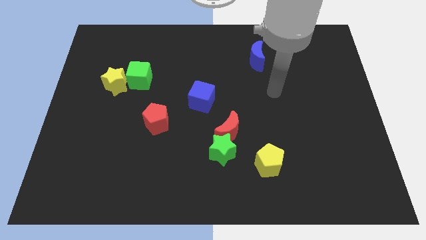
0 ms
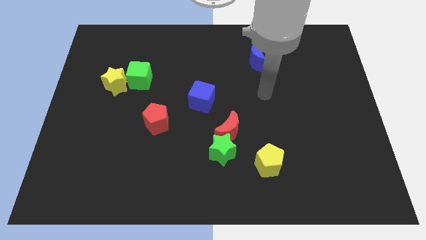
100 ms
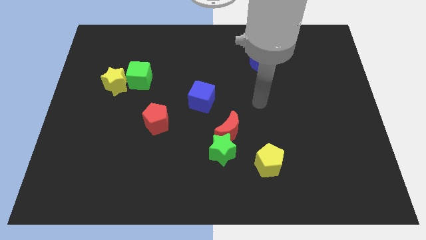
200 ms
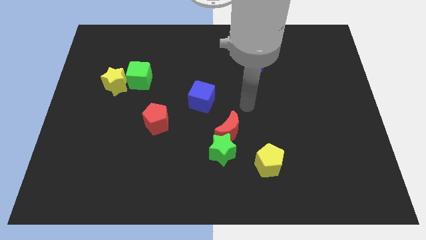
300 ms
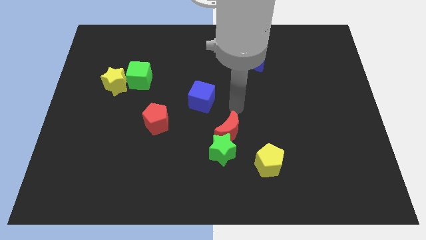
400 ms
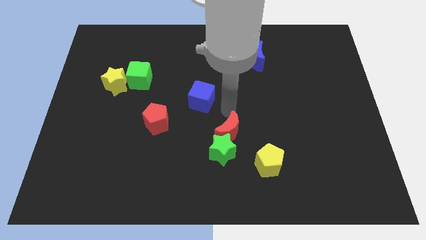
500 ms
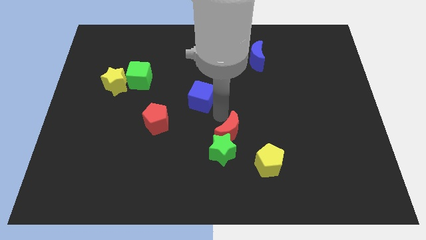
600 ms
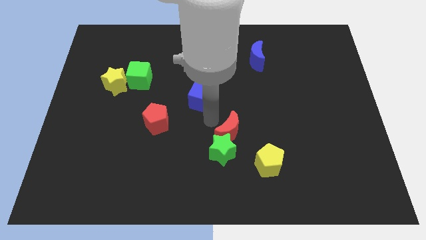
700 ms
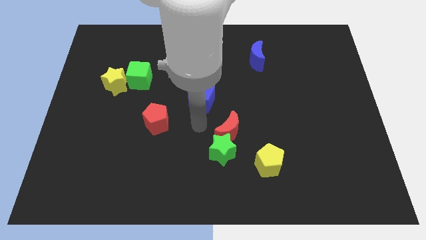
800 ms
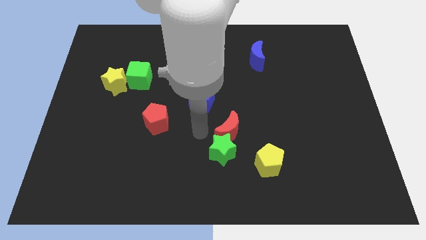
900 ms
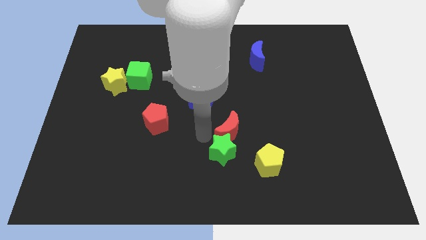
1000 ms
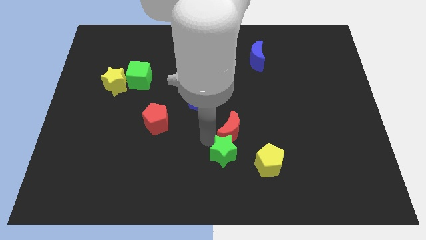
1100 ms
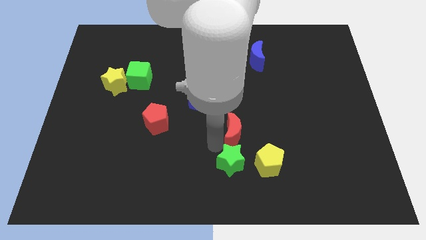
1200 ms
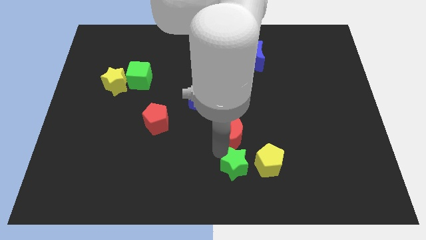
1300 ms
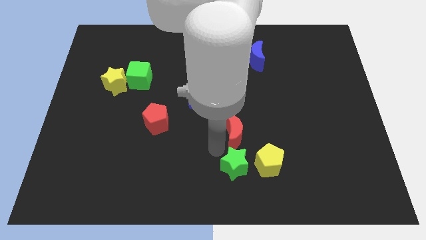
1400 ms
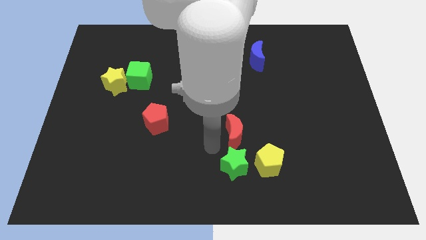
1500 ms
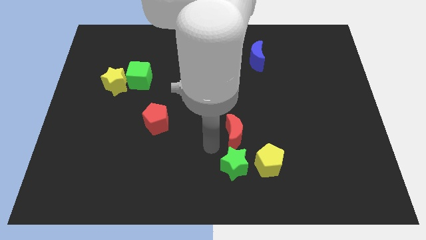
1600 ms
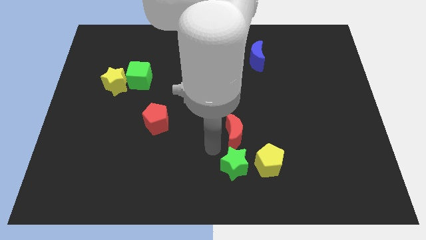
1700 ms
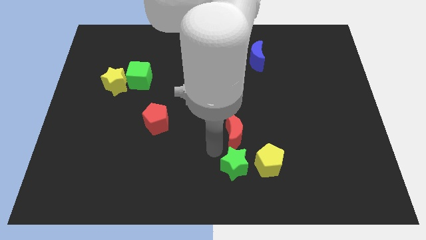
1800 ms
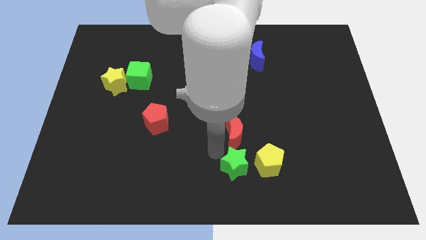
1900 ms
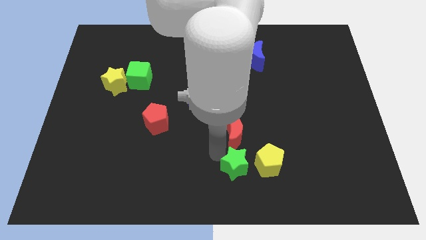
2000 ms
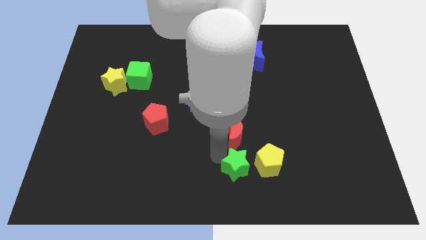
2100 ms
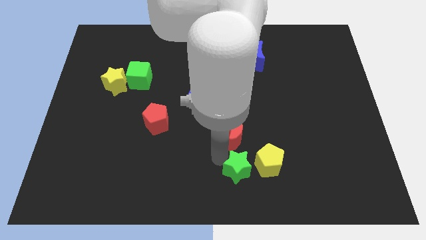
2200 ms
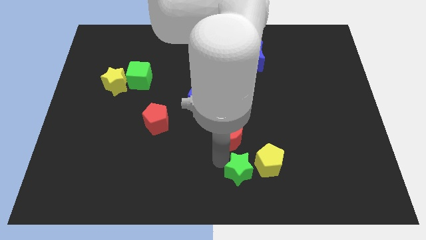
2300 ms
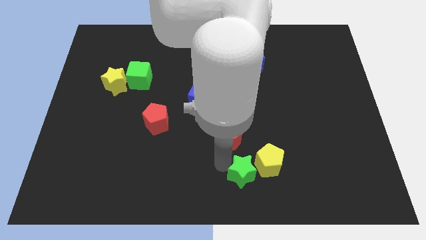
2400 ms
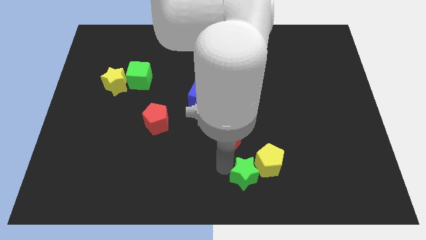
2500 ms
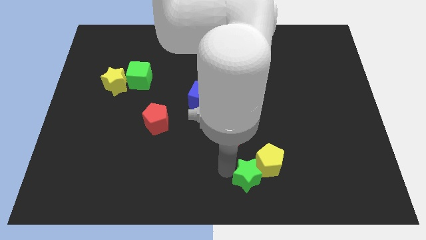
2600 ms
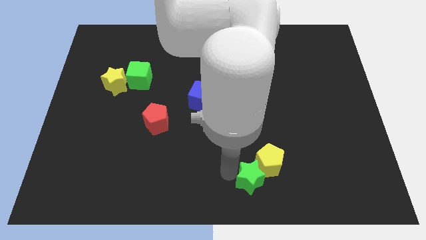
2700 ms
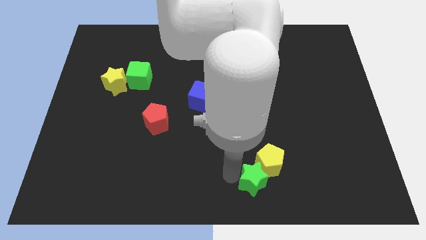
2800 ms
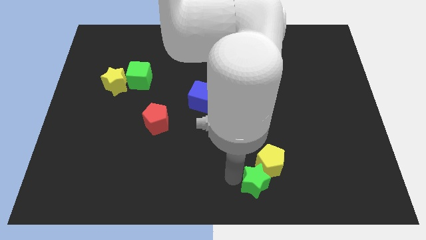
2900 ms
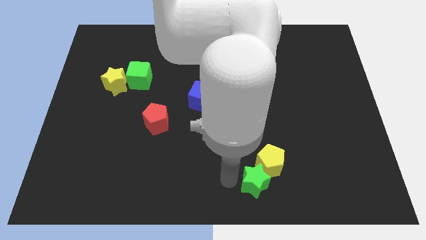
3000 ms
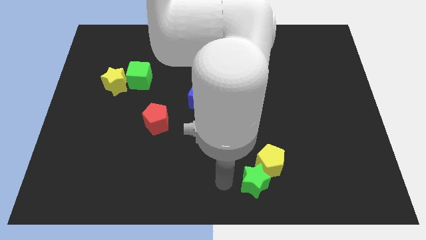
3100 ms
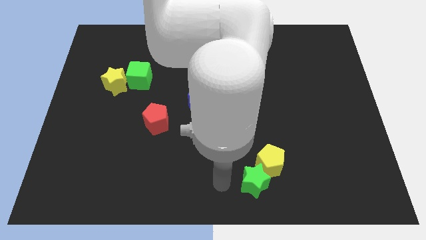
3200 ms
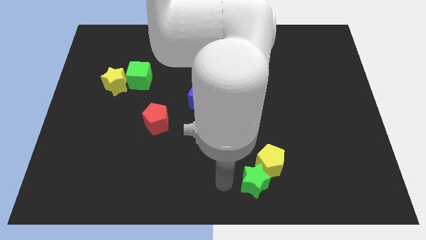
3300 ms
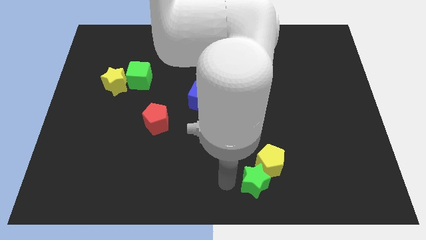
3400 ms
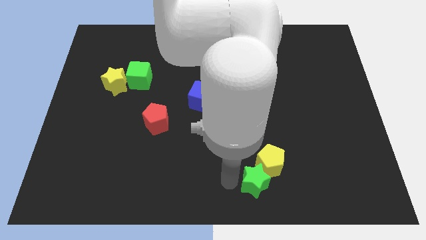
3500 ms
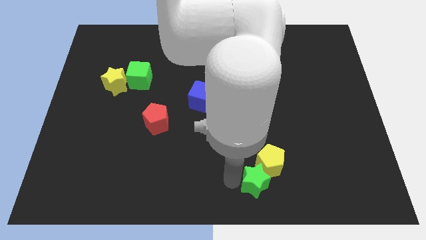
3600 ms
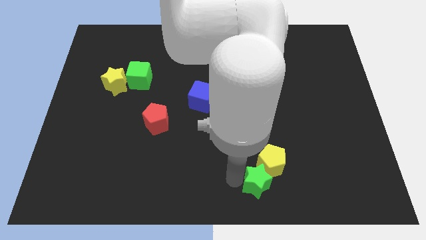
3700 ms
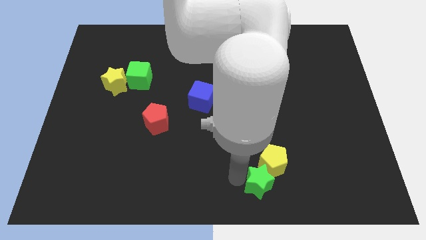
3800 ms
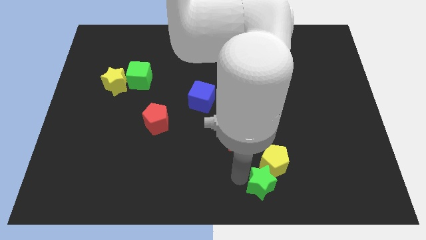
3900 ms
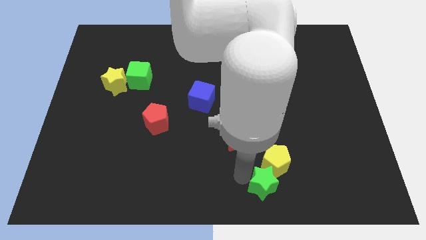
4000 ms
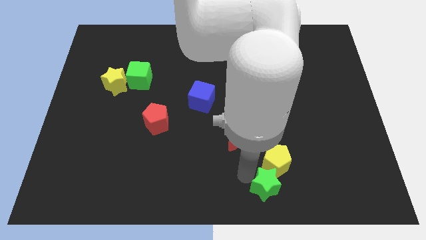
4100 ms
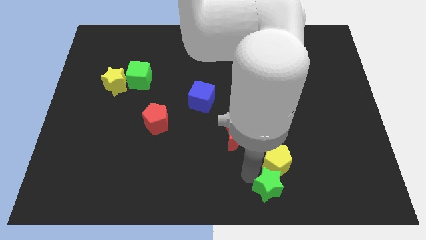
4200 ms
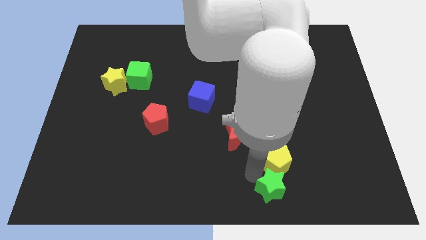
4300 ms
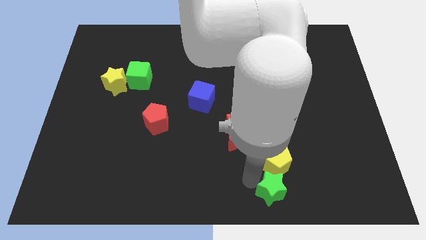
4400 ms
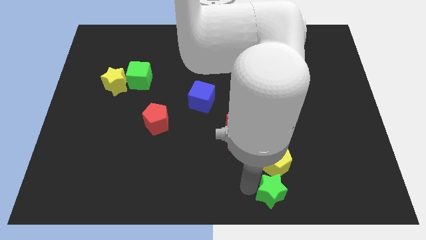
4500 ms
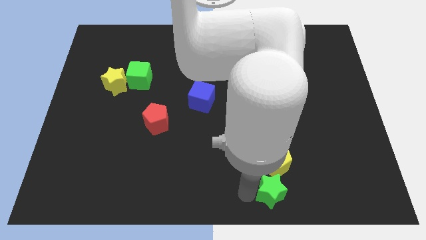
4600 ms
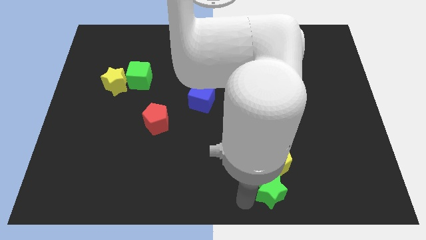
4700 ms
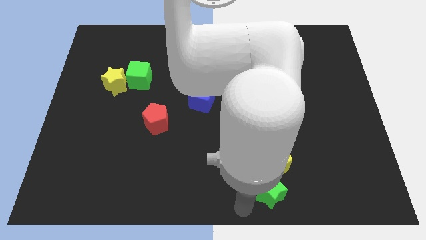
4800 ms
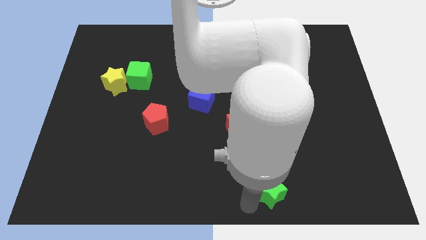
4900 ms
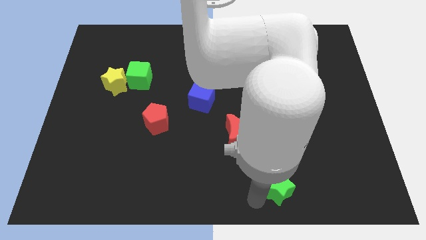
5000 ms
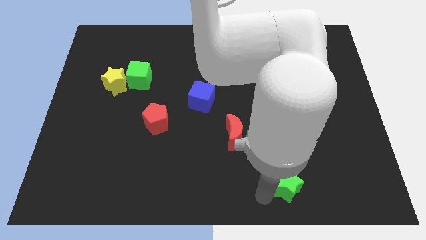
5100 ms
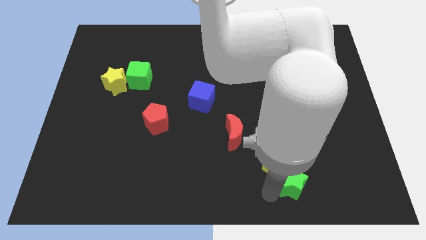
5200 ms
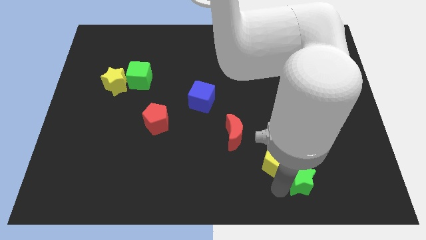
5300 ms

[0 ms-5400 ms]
move the green star to the right of the yellow pentagon

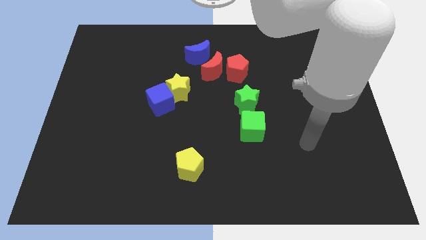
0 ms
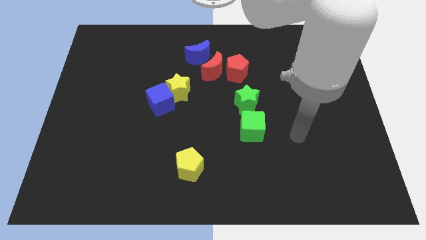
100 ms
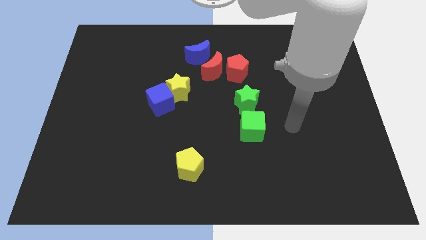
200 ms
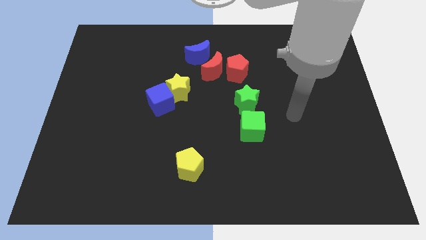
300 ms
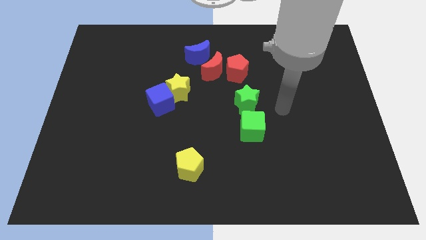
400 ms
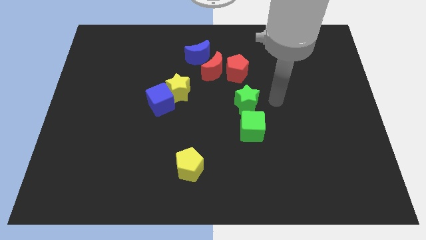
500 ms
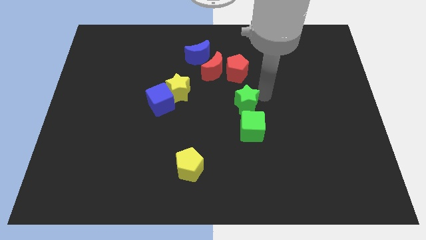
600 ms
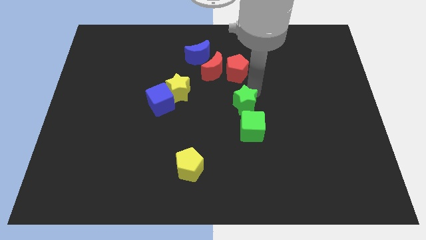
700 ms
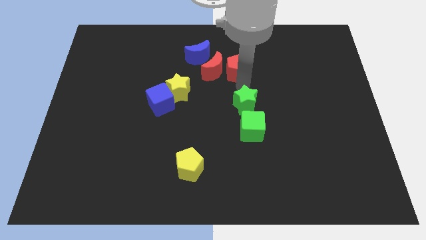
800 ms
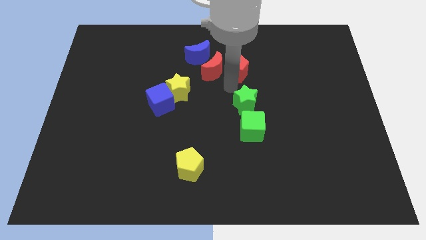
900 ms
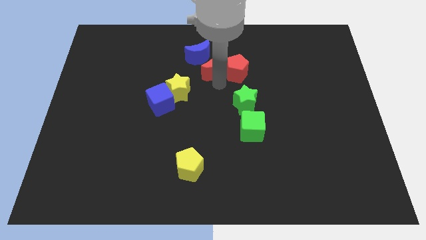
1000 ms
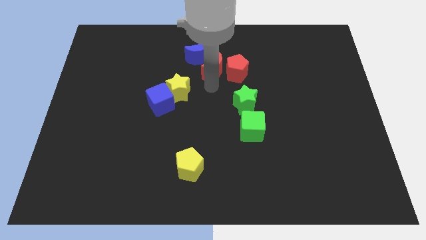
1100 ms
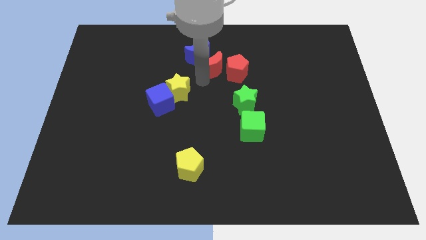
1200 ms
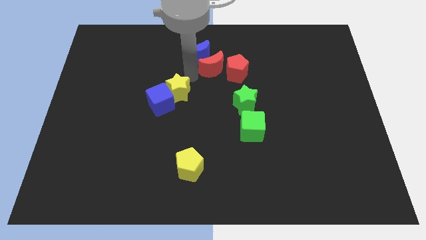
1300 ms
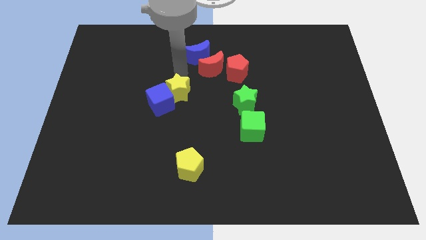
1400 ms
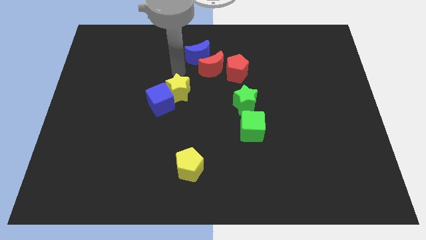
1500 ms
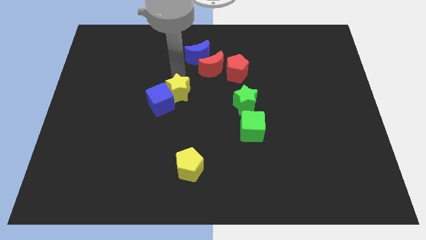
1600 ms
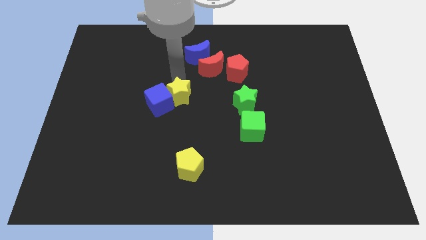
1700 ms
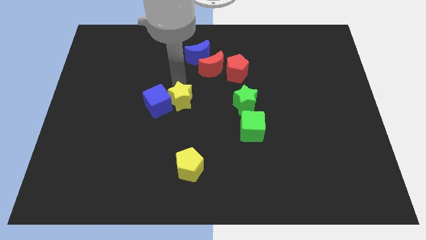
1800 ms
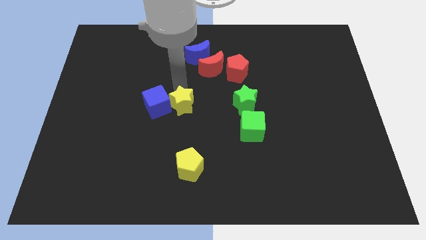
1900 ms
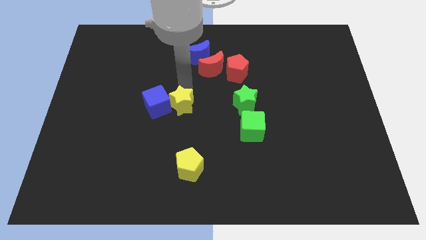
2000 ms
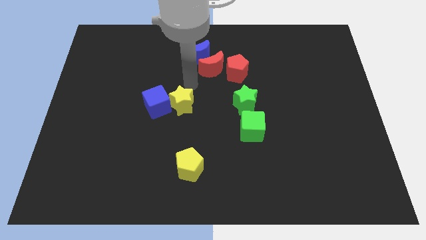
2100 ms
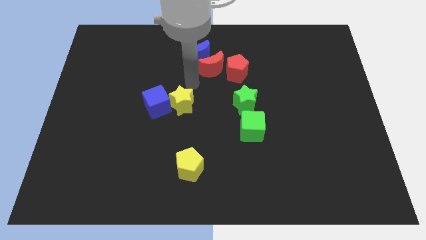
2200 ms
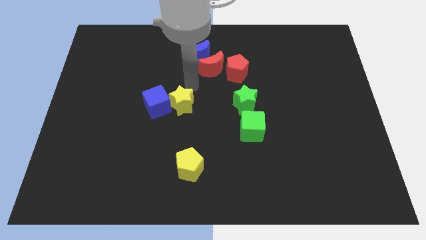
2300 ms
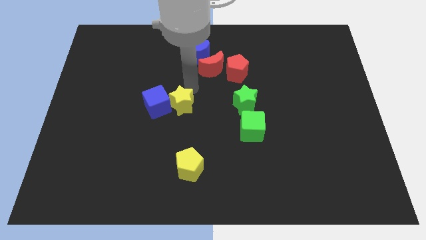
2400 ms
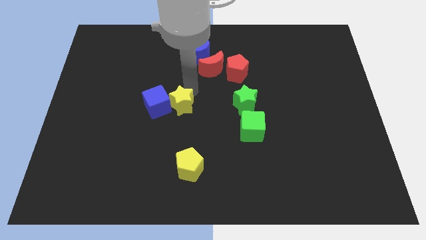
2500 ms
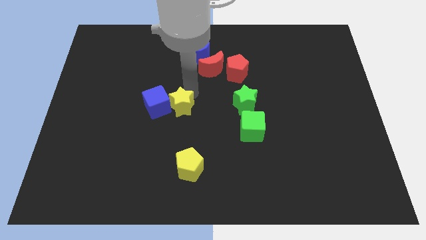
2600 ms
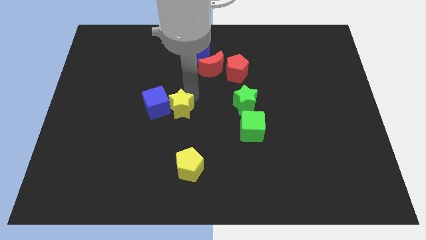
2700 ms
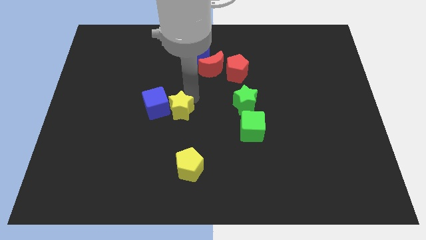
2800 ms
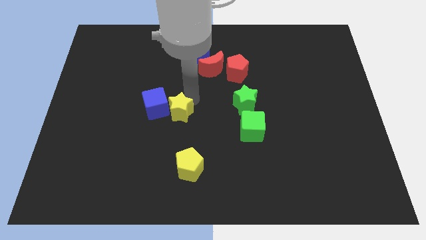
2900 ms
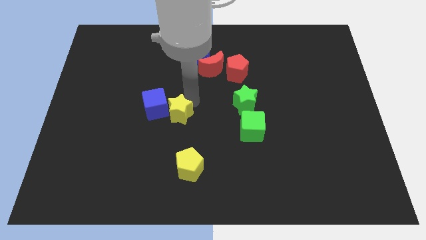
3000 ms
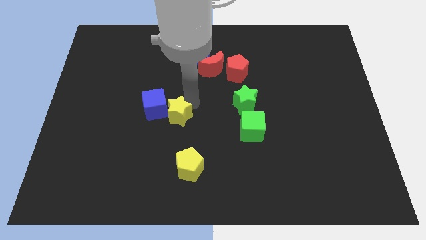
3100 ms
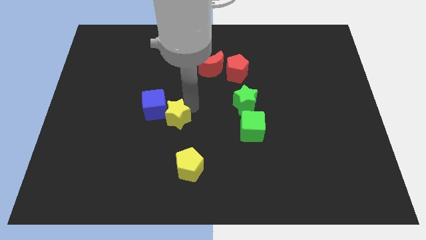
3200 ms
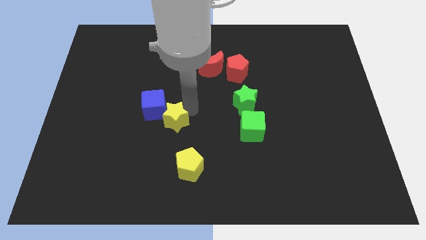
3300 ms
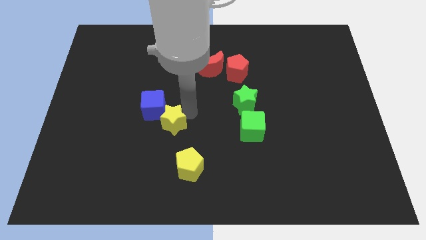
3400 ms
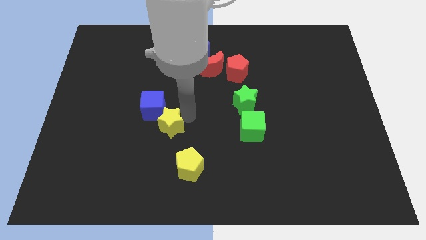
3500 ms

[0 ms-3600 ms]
slide the yellow star to the bottom of the blue cube
